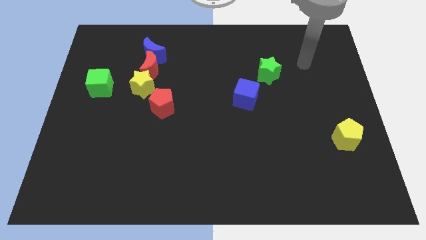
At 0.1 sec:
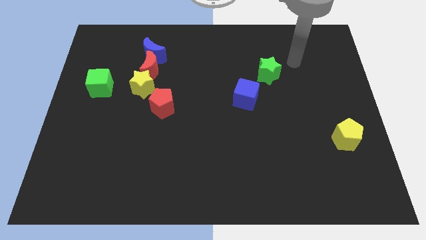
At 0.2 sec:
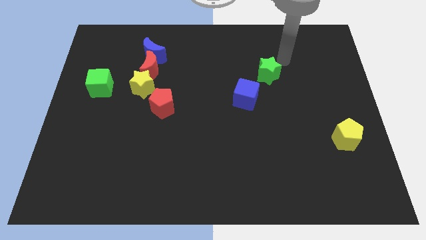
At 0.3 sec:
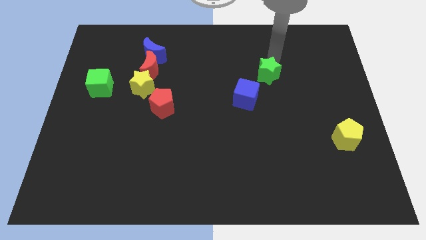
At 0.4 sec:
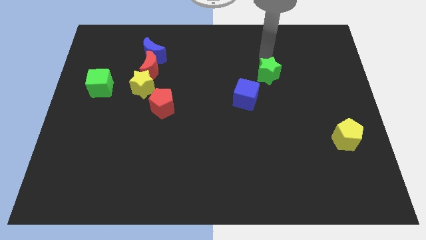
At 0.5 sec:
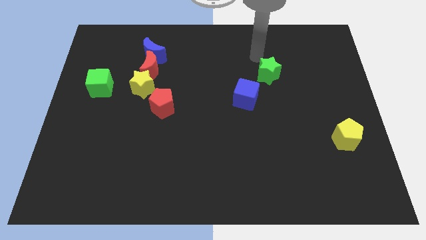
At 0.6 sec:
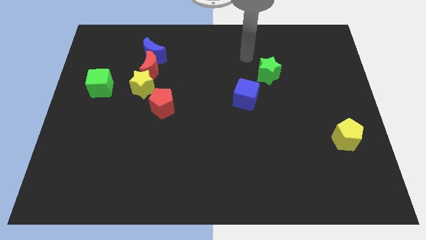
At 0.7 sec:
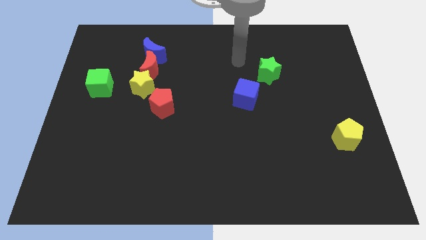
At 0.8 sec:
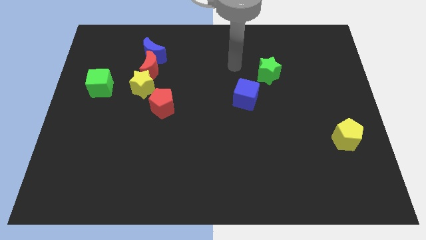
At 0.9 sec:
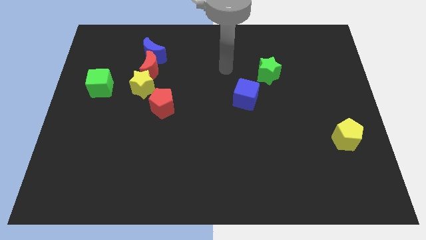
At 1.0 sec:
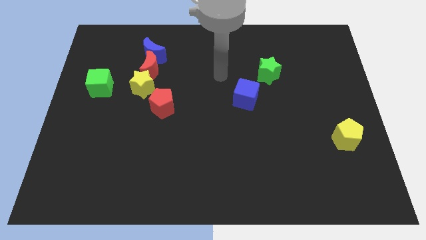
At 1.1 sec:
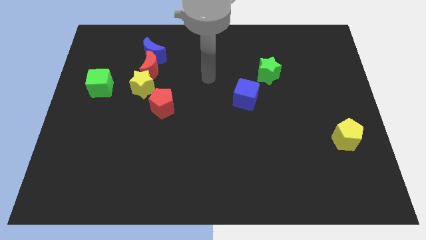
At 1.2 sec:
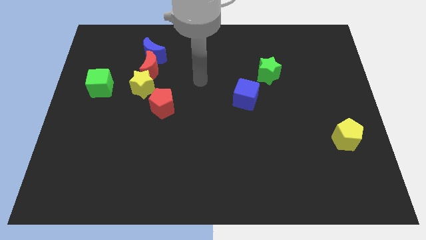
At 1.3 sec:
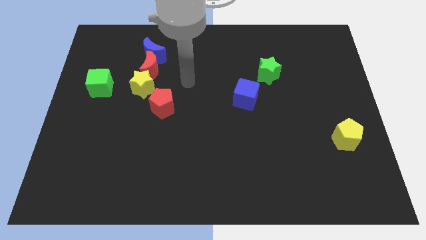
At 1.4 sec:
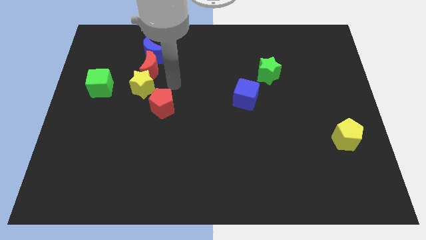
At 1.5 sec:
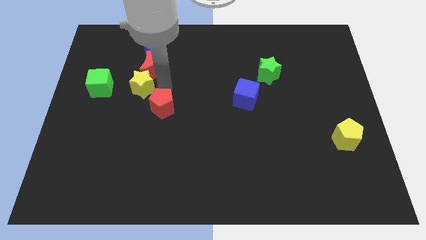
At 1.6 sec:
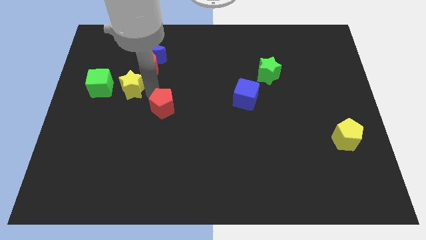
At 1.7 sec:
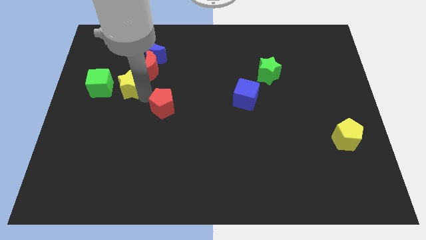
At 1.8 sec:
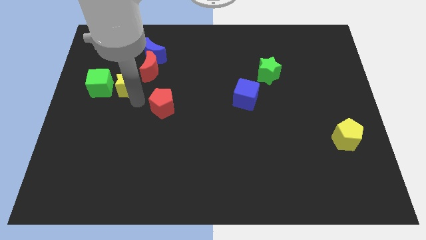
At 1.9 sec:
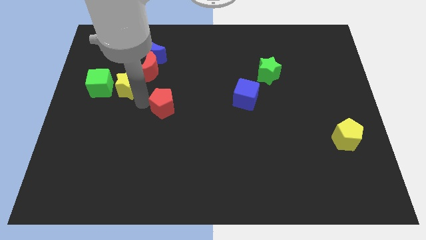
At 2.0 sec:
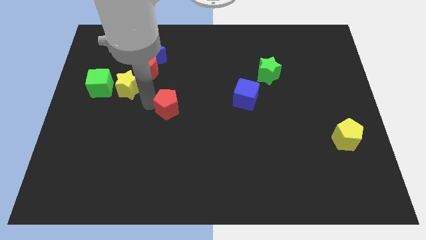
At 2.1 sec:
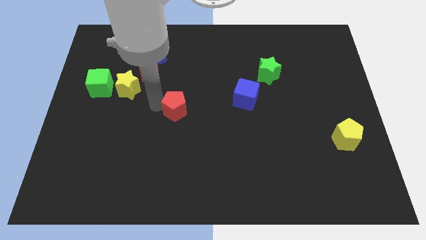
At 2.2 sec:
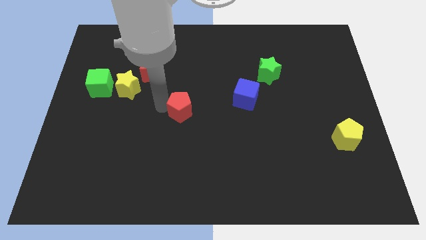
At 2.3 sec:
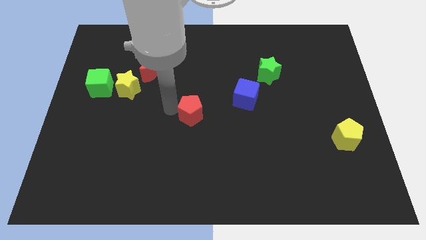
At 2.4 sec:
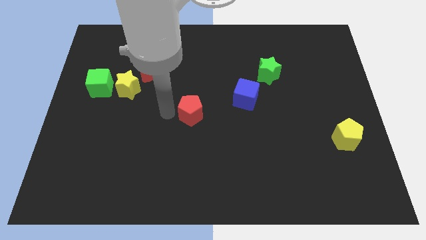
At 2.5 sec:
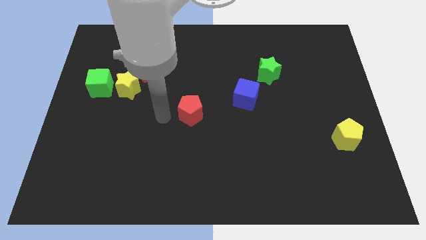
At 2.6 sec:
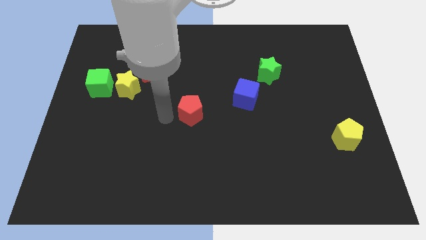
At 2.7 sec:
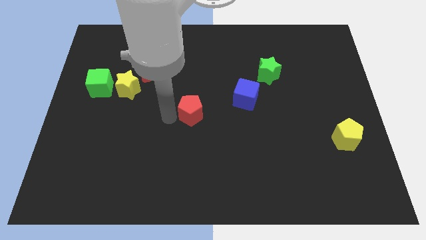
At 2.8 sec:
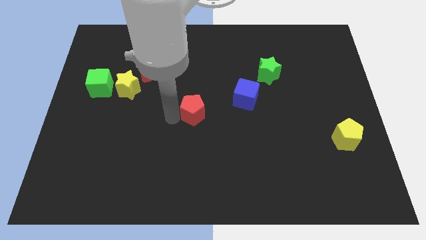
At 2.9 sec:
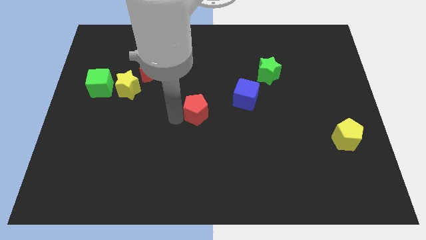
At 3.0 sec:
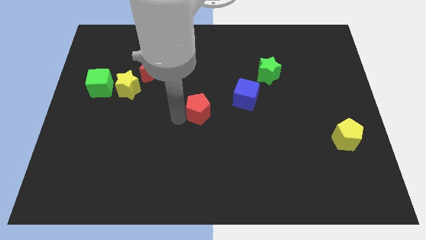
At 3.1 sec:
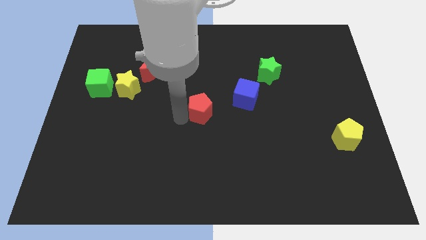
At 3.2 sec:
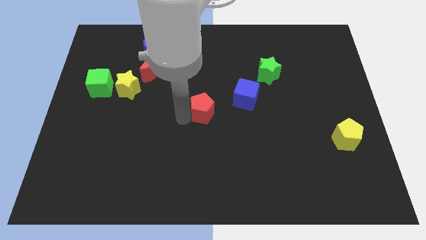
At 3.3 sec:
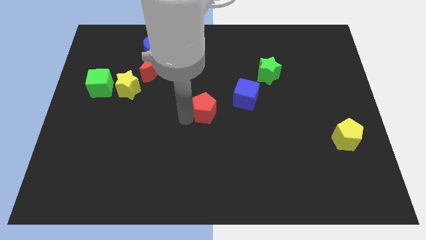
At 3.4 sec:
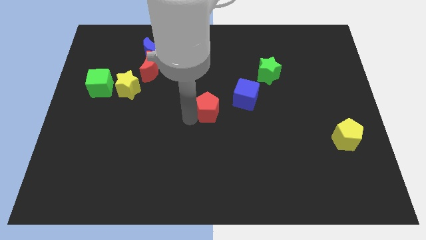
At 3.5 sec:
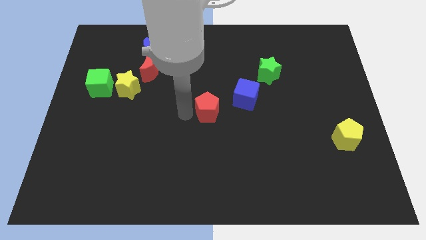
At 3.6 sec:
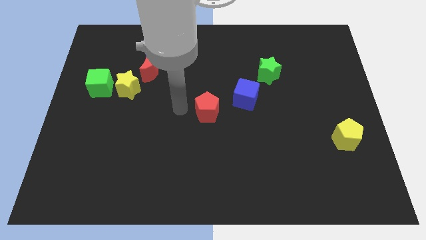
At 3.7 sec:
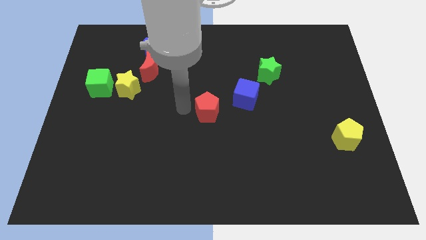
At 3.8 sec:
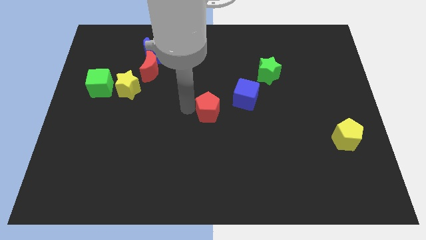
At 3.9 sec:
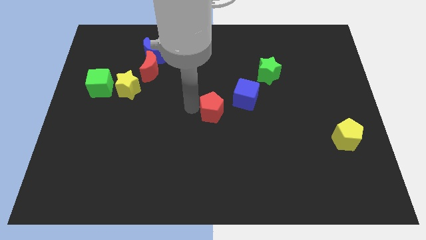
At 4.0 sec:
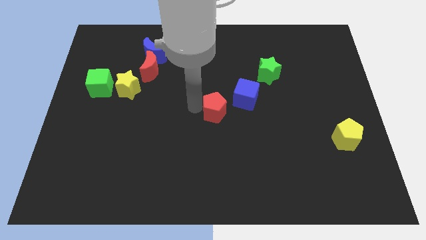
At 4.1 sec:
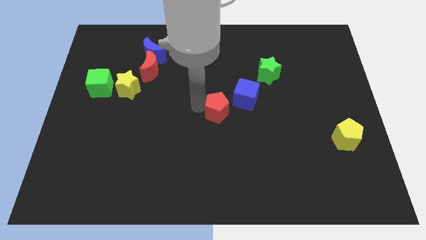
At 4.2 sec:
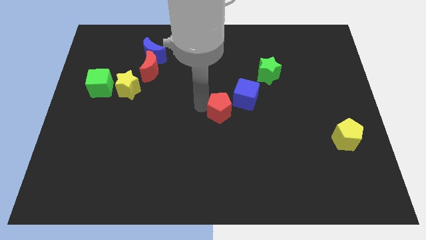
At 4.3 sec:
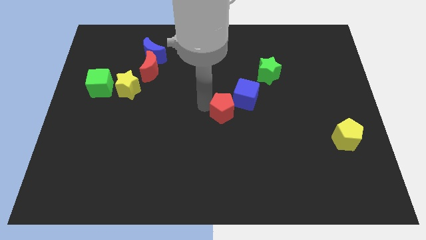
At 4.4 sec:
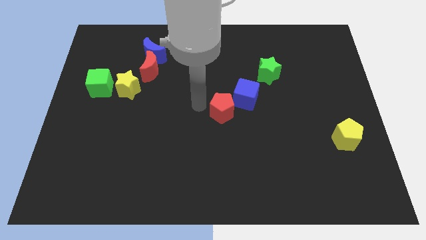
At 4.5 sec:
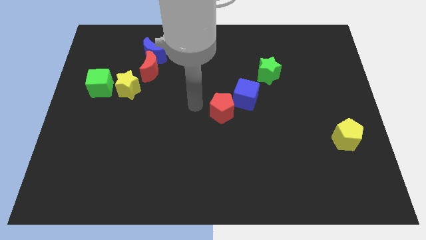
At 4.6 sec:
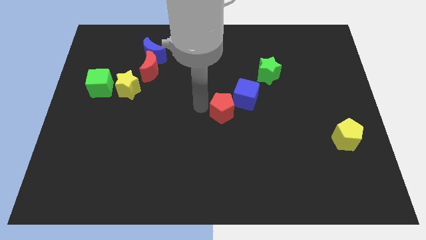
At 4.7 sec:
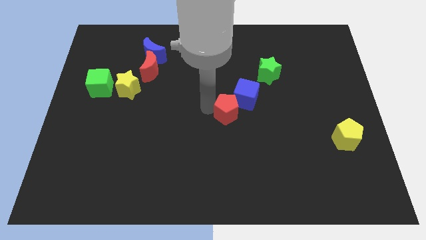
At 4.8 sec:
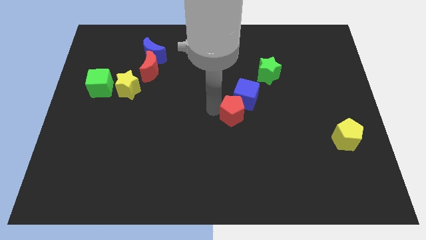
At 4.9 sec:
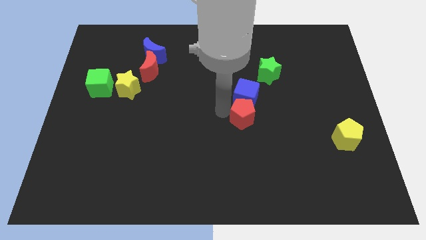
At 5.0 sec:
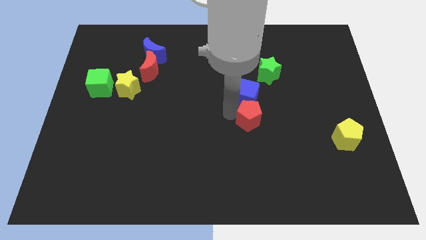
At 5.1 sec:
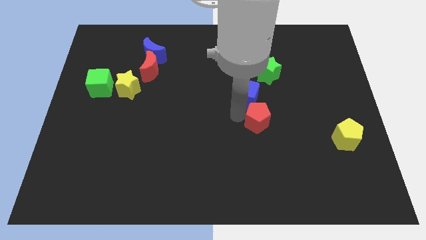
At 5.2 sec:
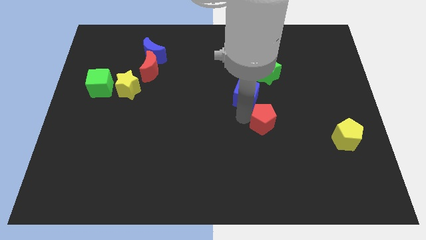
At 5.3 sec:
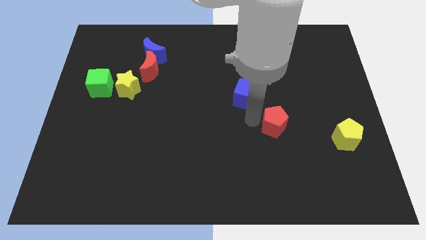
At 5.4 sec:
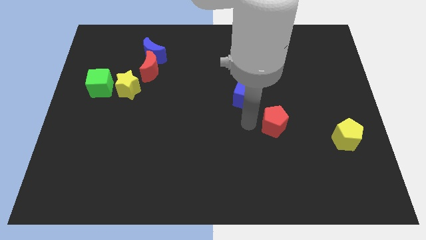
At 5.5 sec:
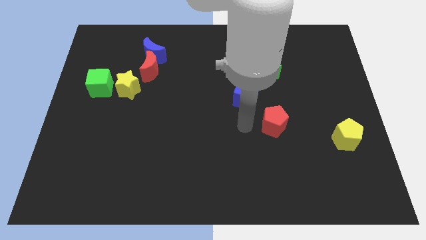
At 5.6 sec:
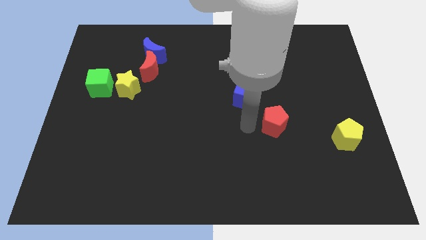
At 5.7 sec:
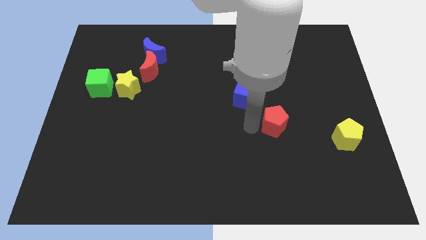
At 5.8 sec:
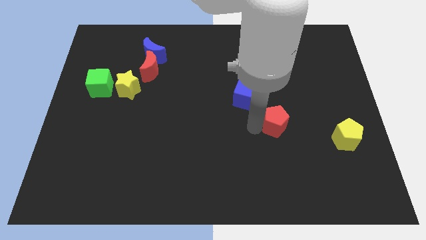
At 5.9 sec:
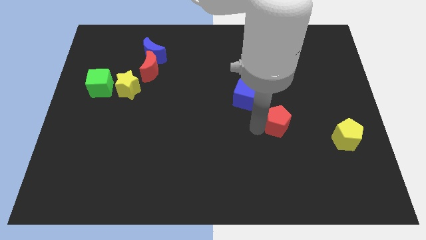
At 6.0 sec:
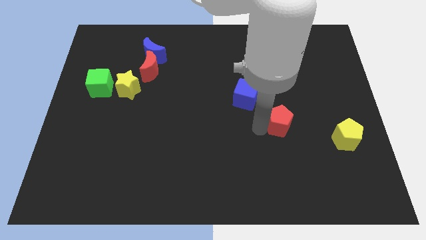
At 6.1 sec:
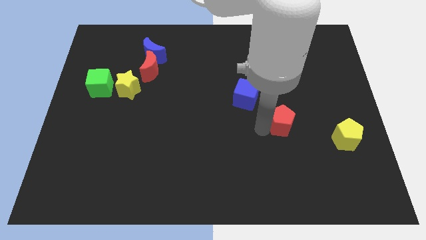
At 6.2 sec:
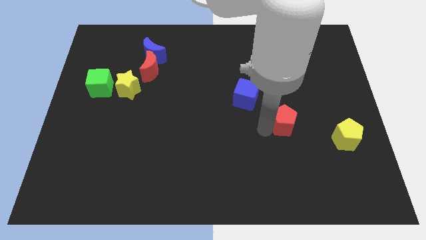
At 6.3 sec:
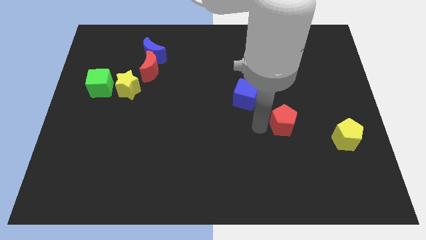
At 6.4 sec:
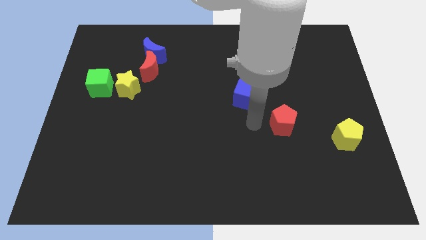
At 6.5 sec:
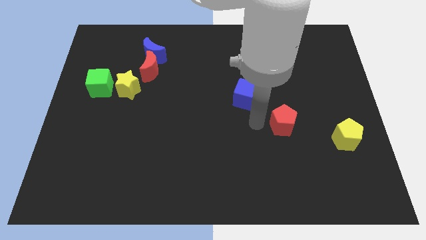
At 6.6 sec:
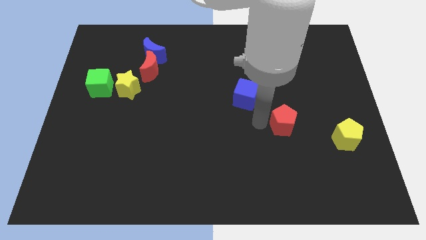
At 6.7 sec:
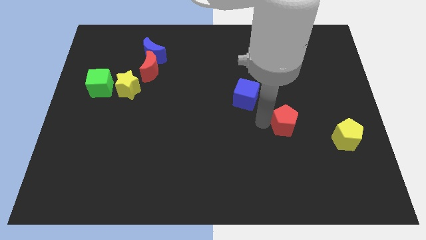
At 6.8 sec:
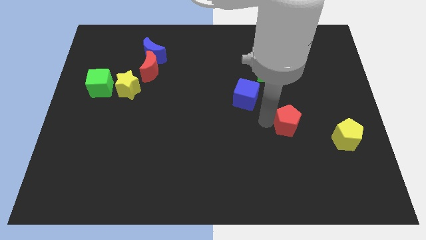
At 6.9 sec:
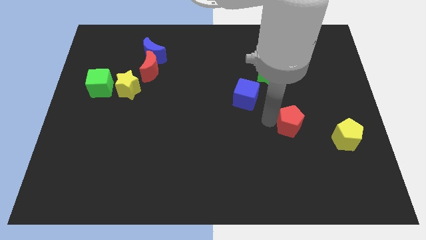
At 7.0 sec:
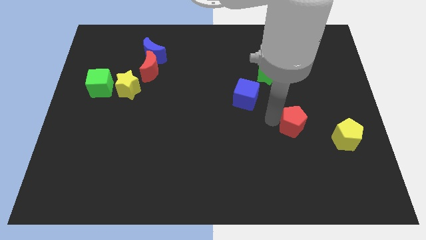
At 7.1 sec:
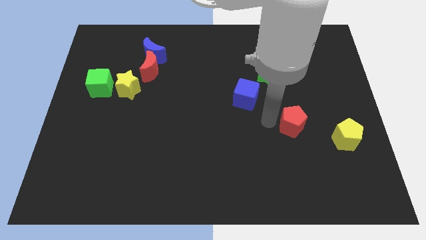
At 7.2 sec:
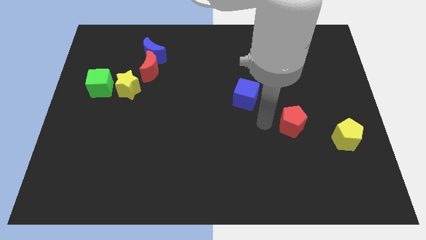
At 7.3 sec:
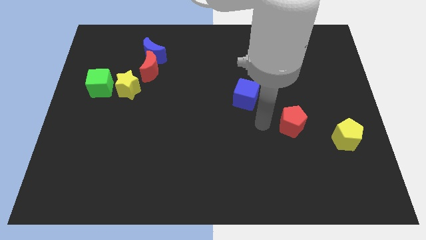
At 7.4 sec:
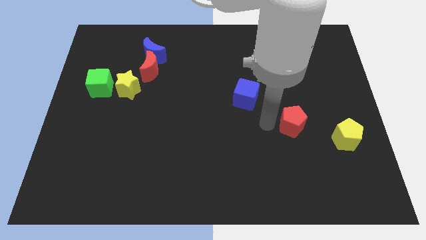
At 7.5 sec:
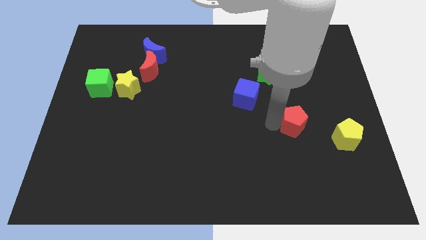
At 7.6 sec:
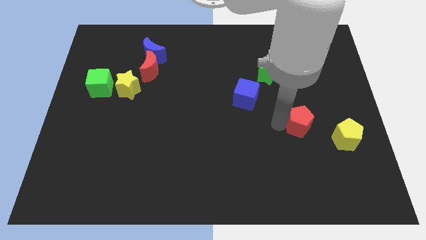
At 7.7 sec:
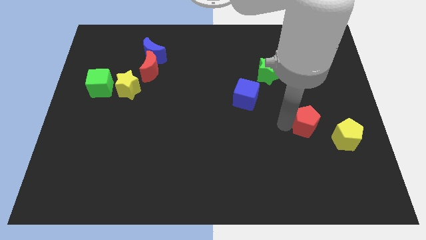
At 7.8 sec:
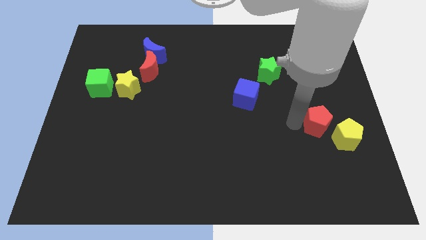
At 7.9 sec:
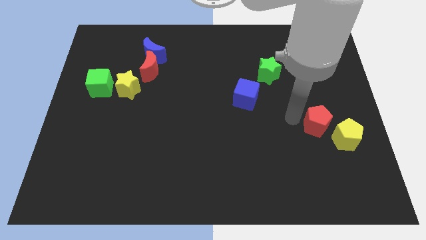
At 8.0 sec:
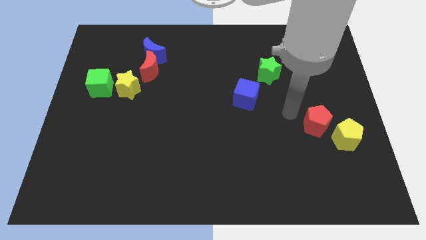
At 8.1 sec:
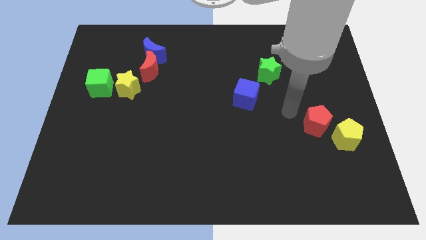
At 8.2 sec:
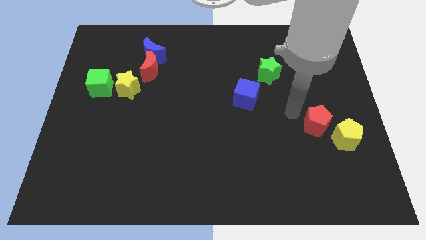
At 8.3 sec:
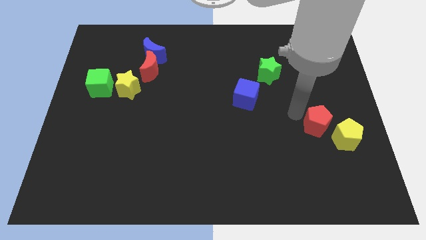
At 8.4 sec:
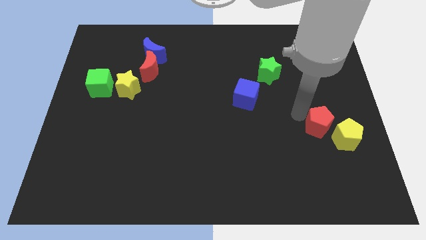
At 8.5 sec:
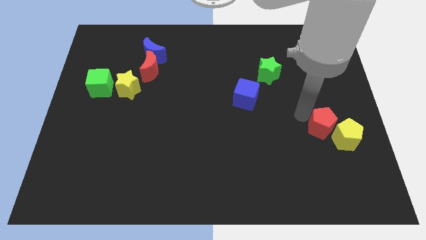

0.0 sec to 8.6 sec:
slide the red pentagon to the yellow pentagon
